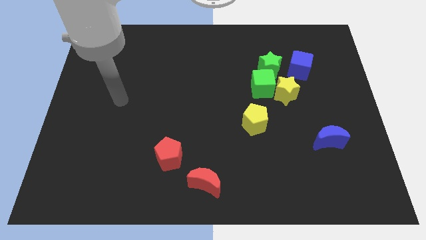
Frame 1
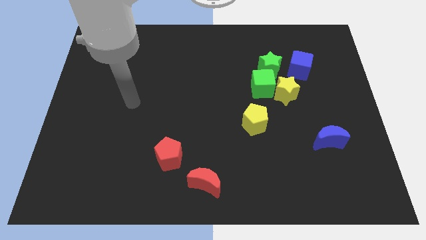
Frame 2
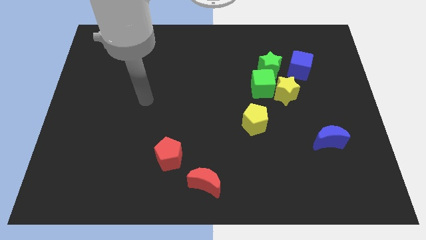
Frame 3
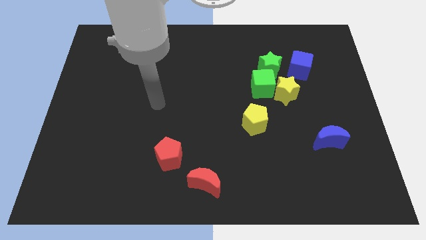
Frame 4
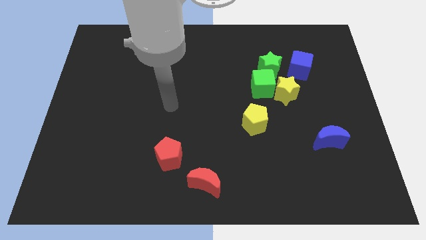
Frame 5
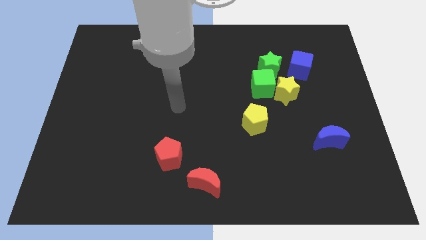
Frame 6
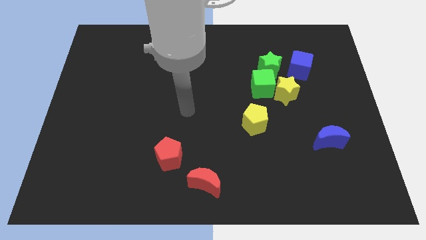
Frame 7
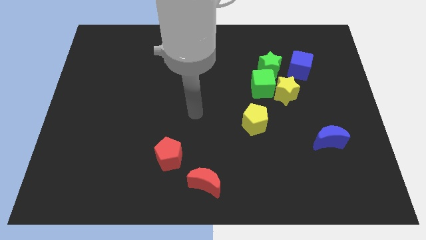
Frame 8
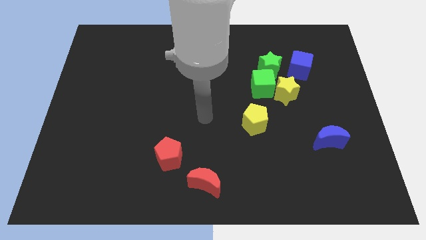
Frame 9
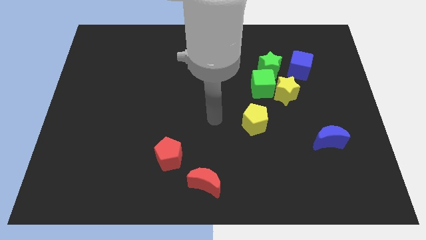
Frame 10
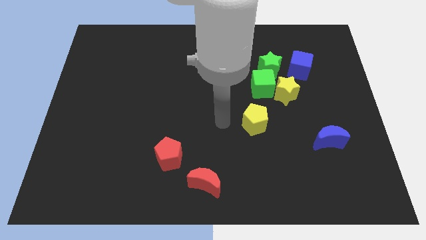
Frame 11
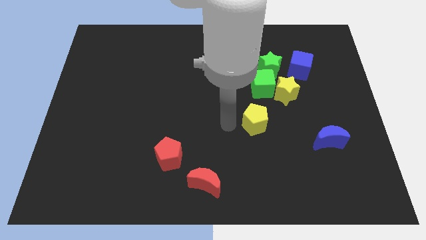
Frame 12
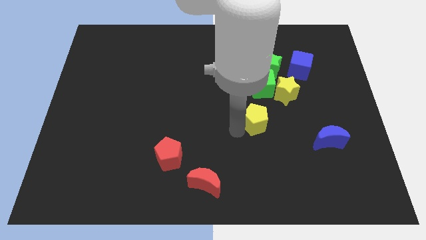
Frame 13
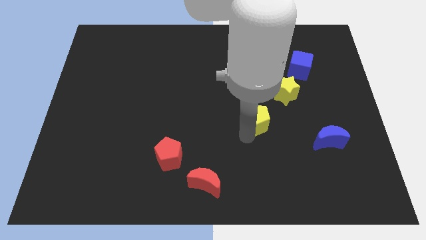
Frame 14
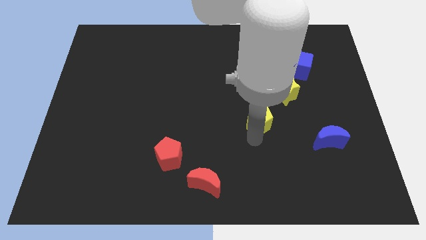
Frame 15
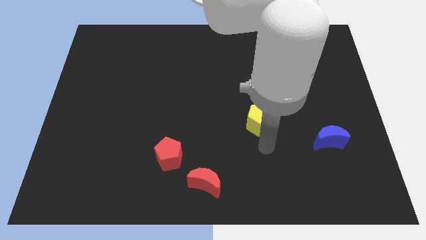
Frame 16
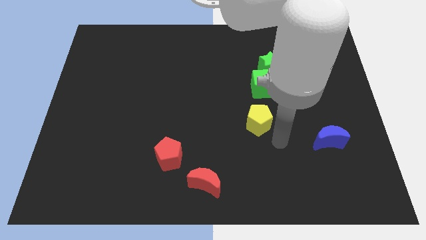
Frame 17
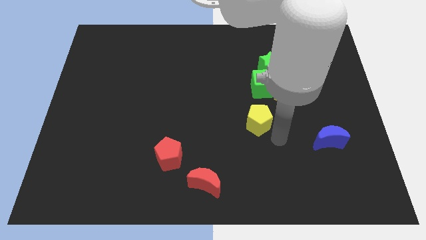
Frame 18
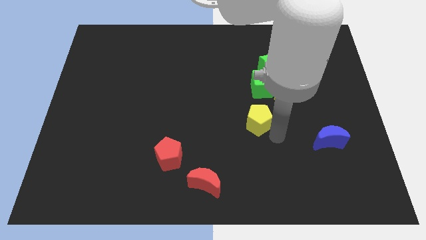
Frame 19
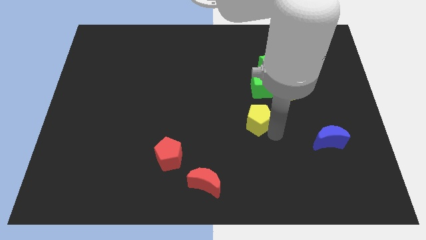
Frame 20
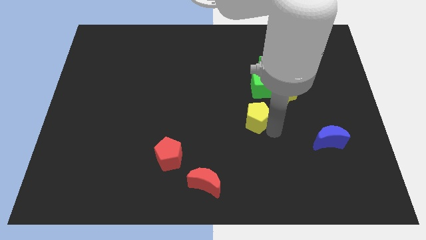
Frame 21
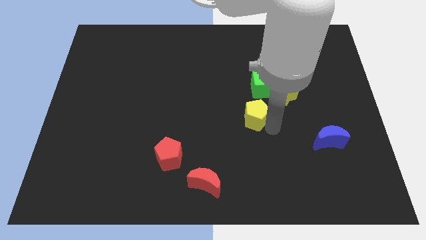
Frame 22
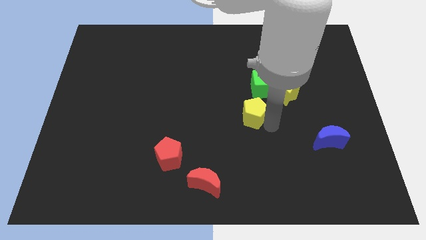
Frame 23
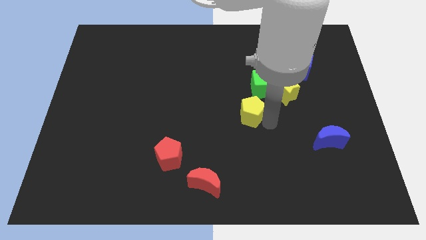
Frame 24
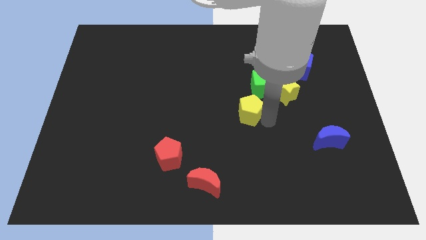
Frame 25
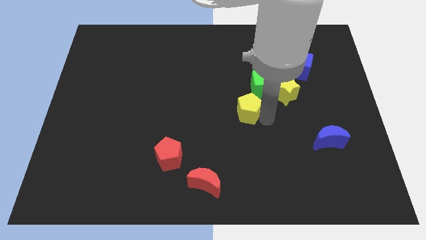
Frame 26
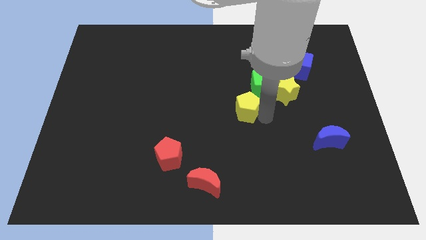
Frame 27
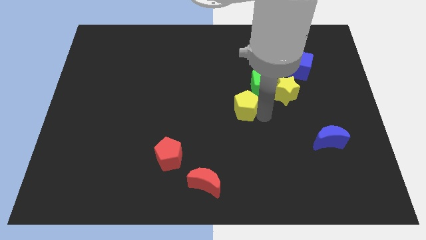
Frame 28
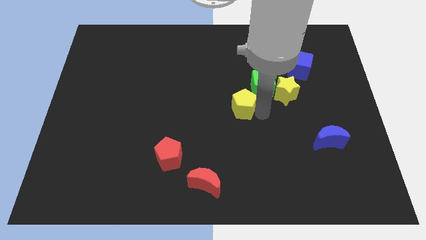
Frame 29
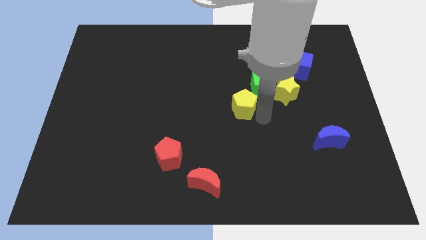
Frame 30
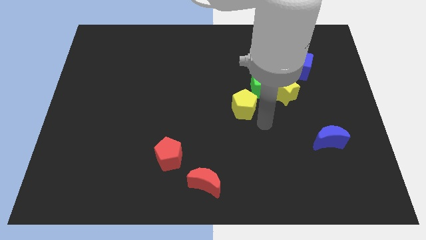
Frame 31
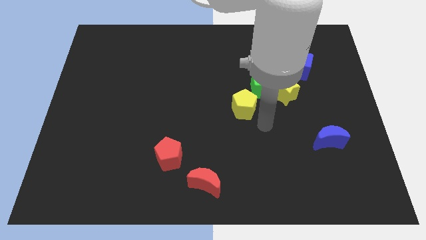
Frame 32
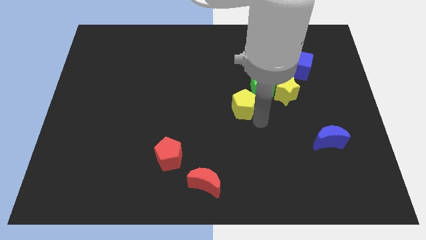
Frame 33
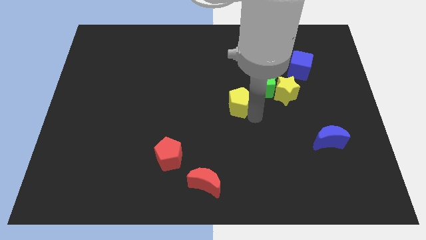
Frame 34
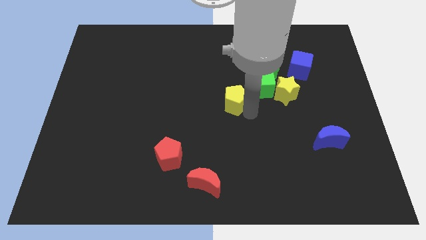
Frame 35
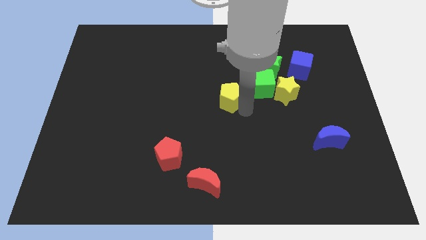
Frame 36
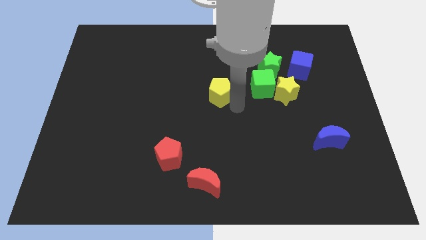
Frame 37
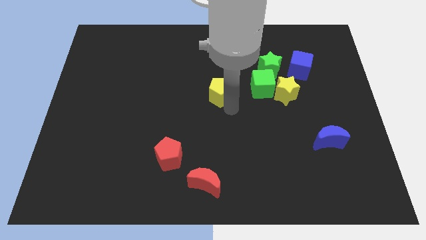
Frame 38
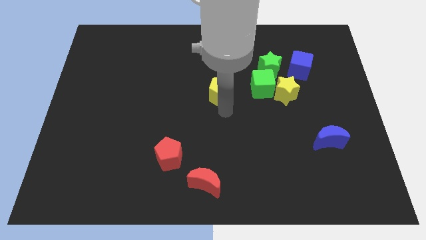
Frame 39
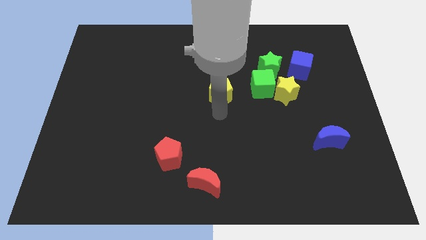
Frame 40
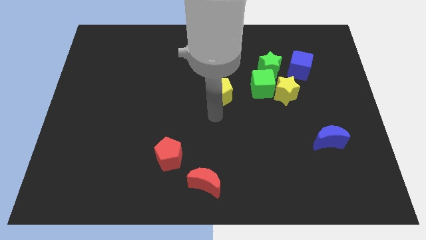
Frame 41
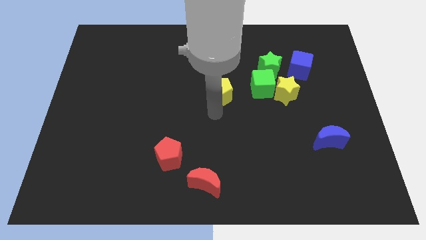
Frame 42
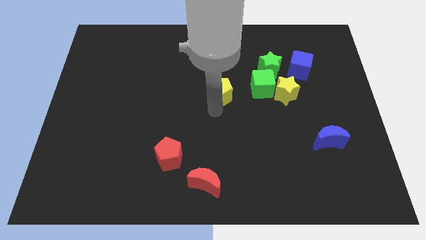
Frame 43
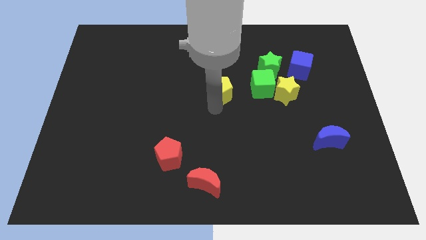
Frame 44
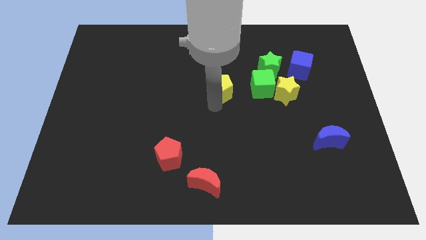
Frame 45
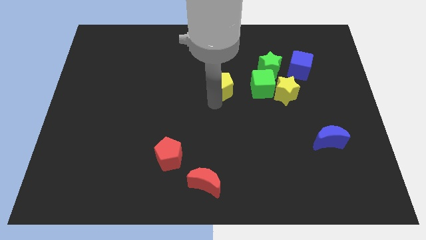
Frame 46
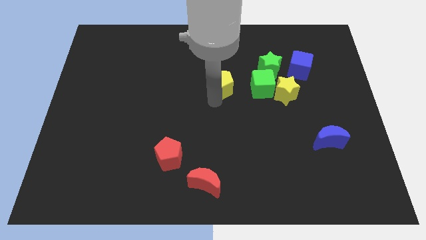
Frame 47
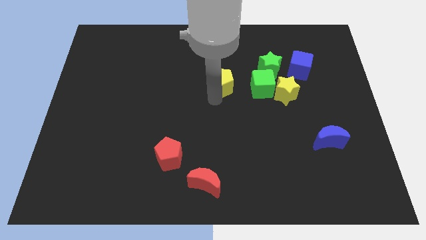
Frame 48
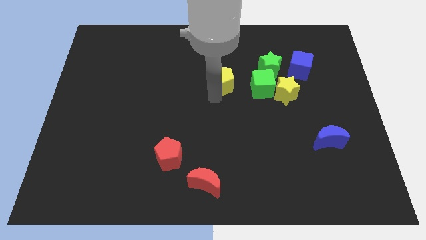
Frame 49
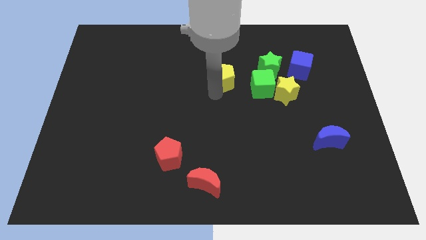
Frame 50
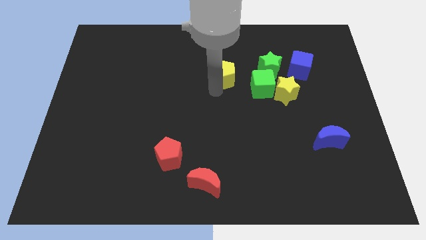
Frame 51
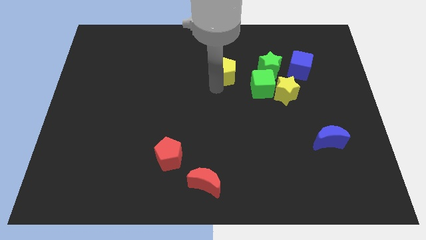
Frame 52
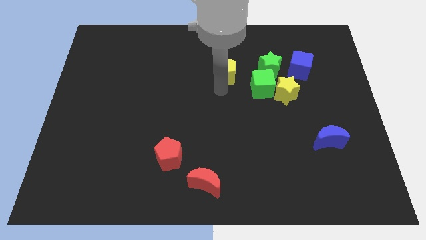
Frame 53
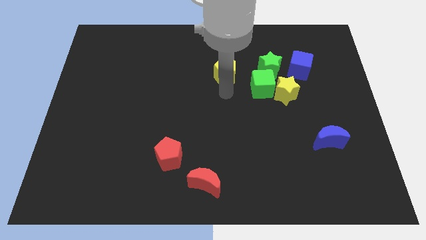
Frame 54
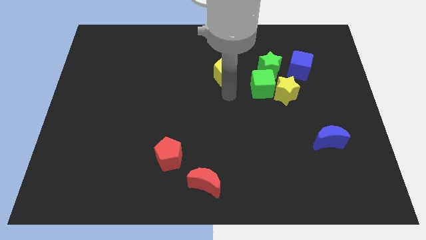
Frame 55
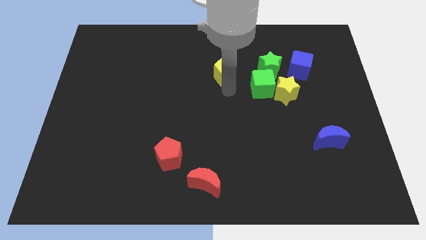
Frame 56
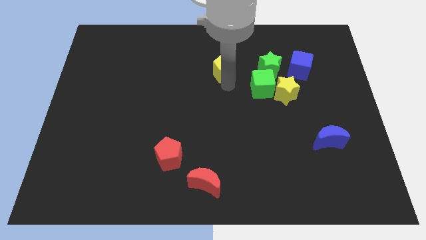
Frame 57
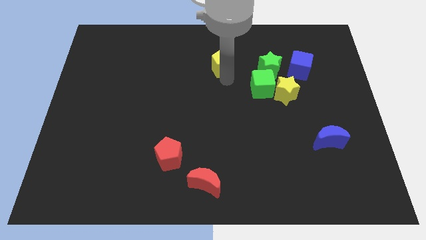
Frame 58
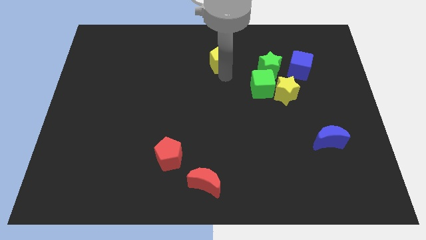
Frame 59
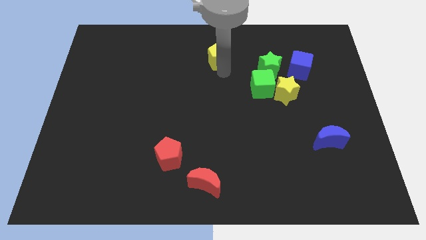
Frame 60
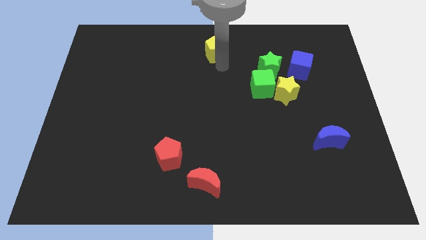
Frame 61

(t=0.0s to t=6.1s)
put the yellow pentagon to the towards your base

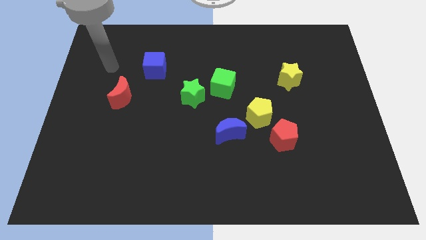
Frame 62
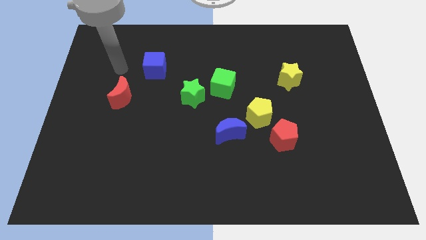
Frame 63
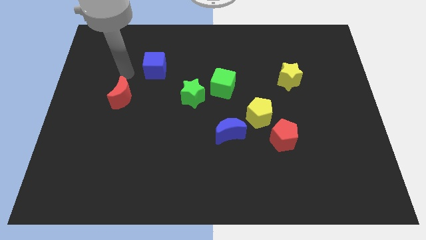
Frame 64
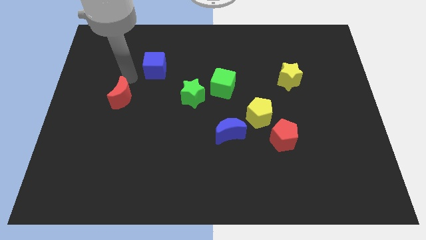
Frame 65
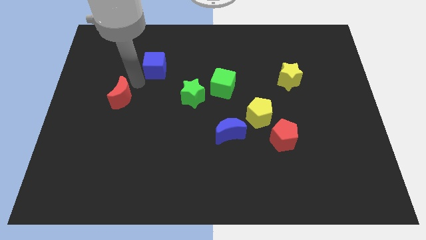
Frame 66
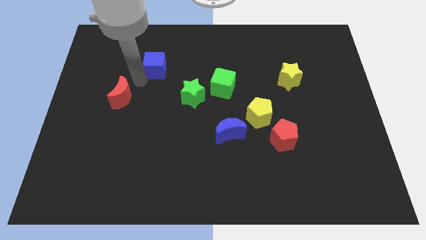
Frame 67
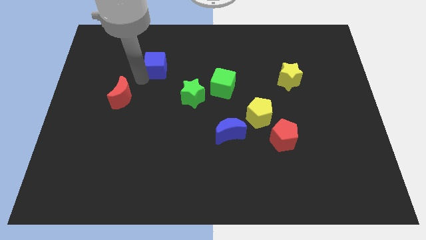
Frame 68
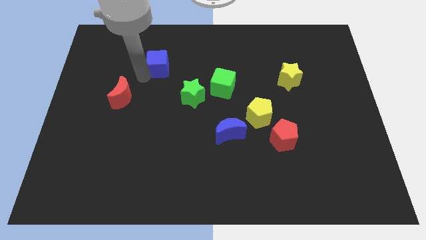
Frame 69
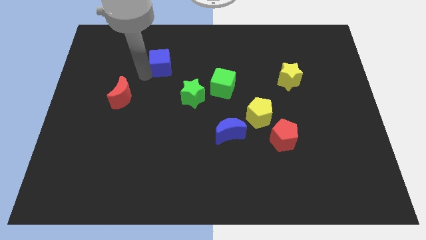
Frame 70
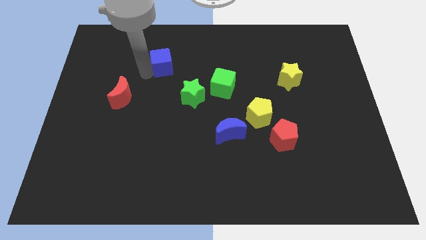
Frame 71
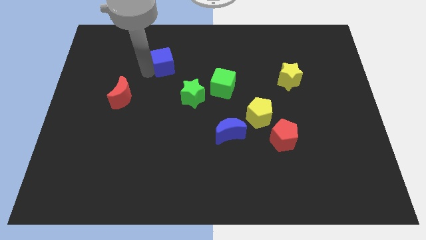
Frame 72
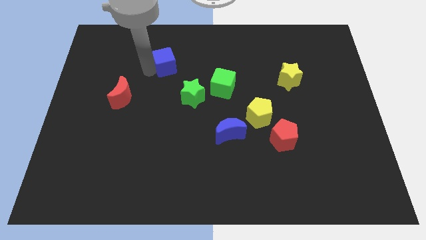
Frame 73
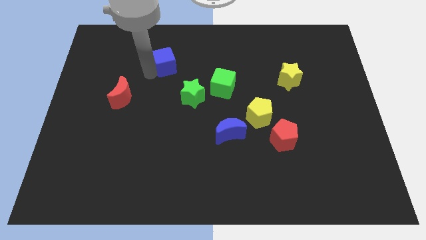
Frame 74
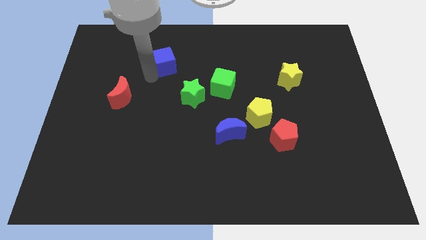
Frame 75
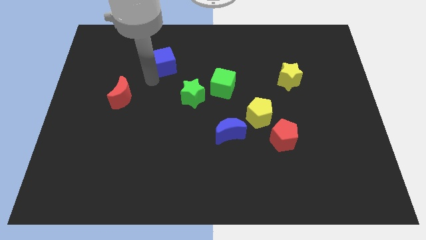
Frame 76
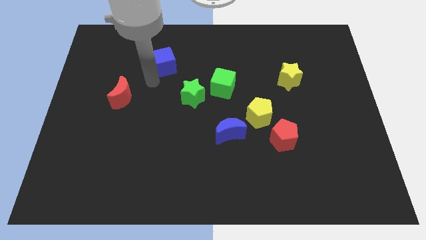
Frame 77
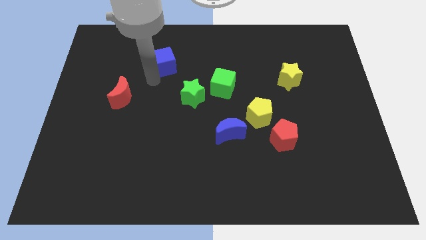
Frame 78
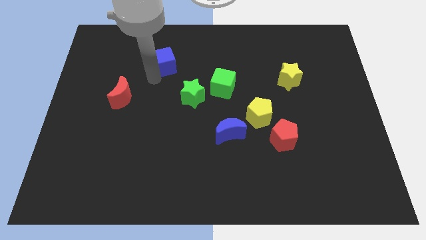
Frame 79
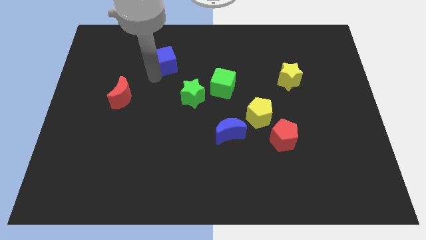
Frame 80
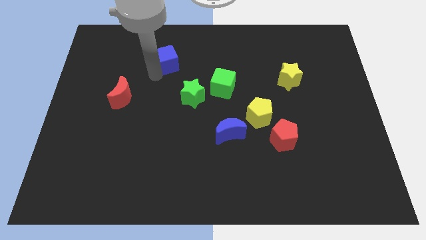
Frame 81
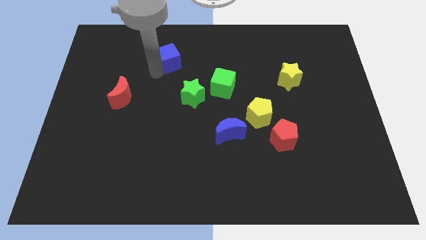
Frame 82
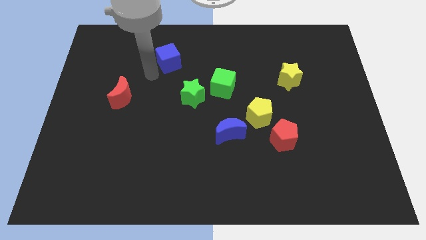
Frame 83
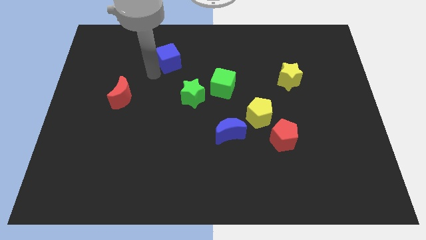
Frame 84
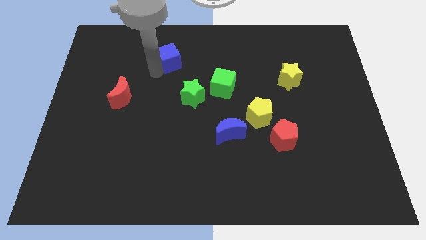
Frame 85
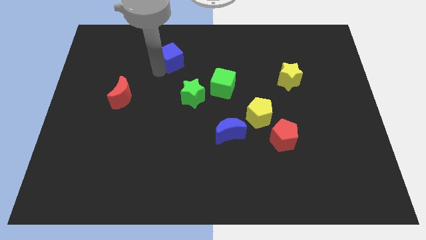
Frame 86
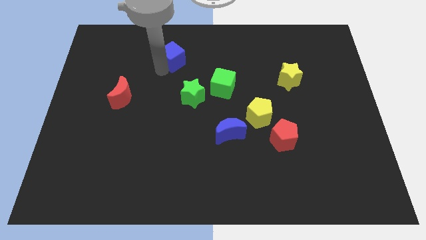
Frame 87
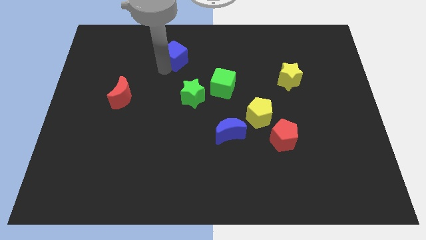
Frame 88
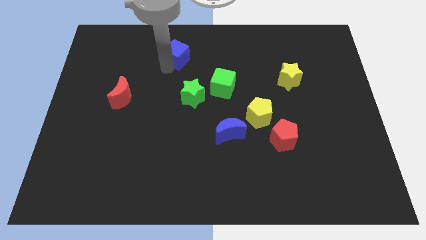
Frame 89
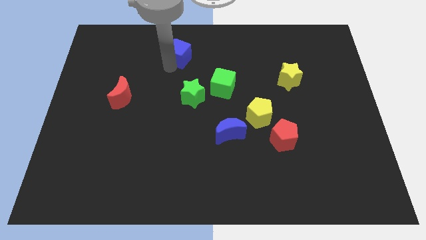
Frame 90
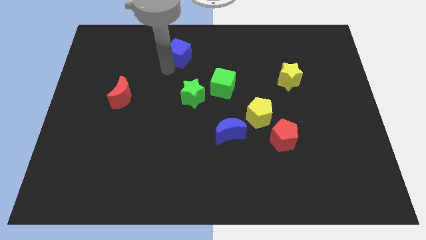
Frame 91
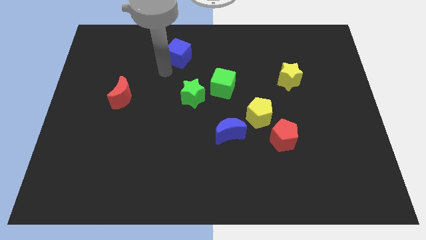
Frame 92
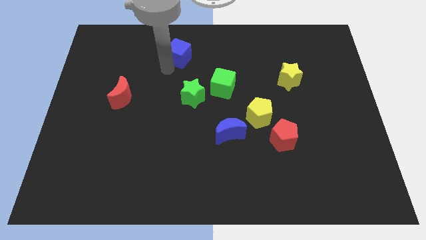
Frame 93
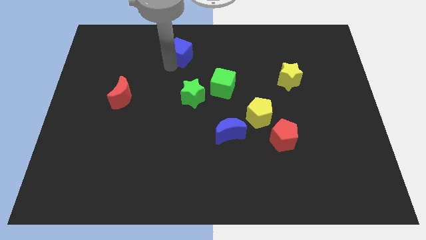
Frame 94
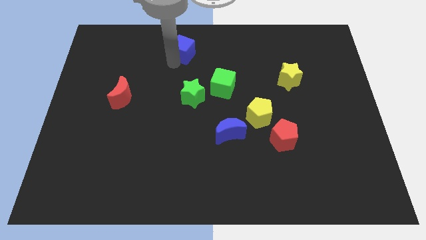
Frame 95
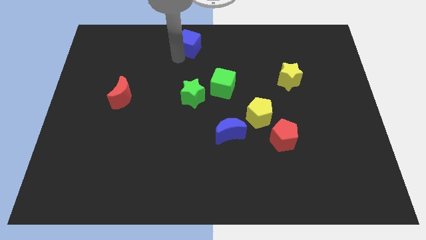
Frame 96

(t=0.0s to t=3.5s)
put the blue cube to the top side
